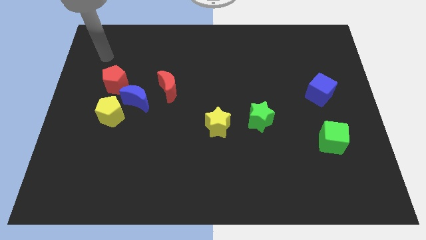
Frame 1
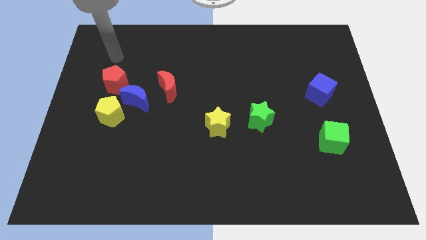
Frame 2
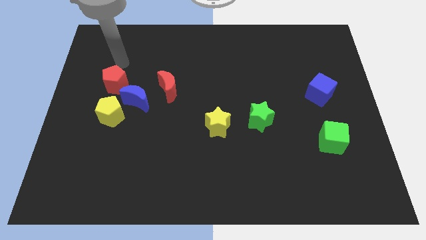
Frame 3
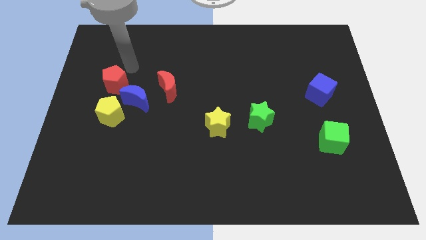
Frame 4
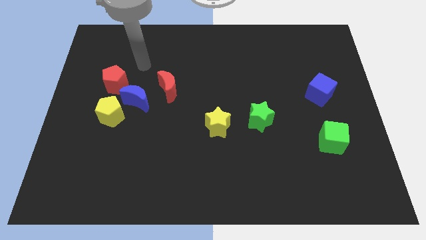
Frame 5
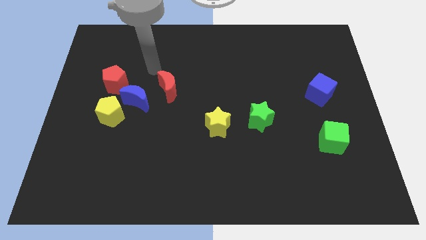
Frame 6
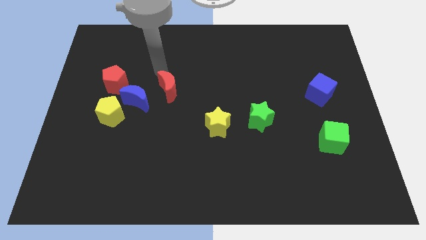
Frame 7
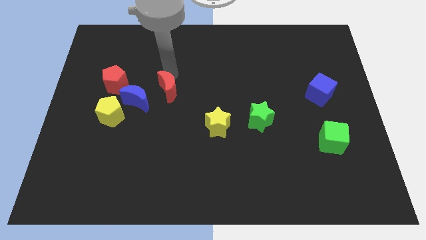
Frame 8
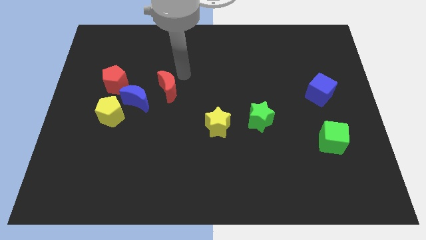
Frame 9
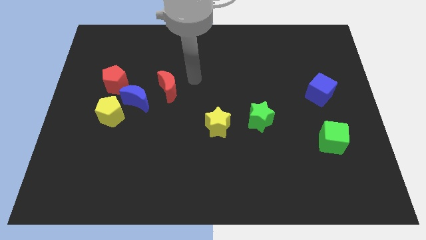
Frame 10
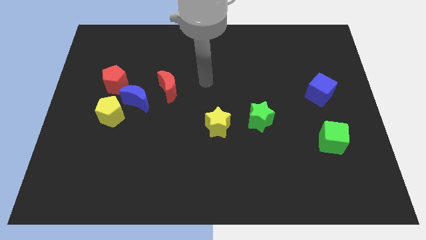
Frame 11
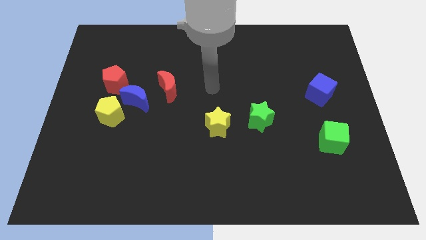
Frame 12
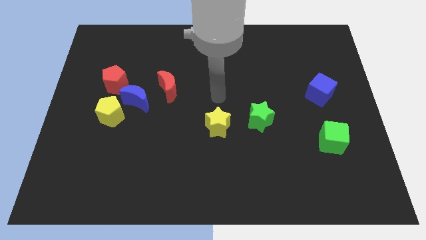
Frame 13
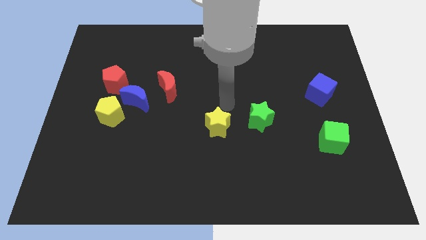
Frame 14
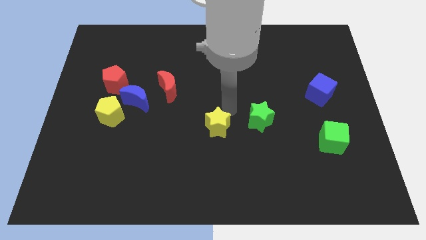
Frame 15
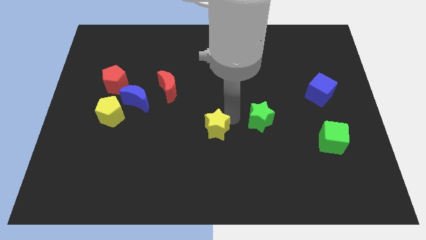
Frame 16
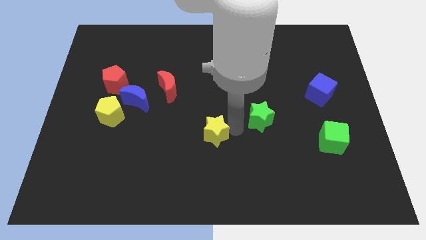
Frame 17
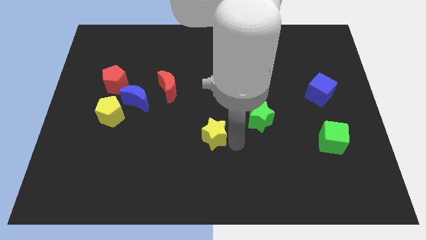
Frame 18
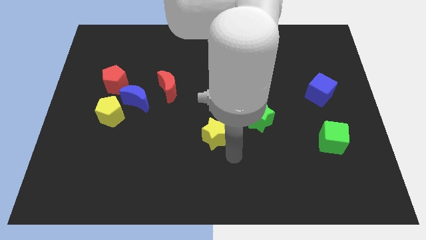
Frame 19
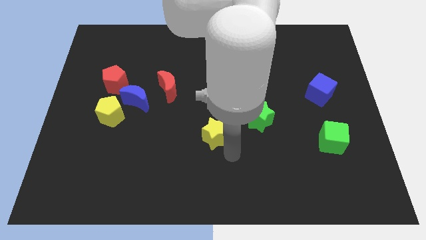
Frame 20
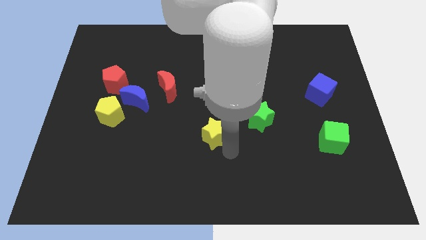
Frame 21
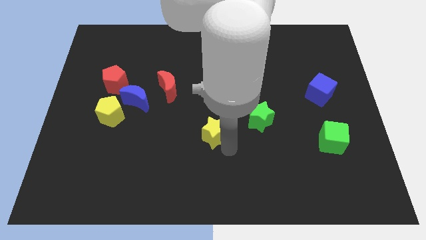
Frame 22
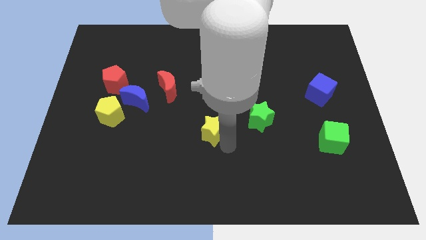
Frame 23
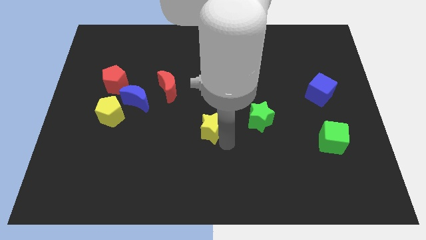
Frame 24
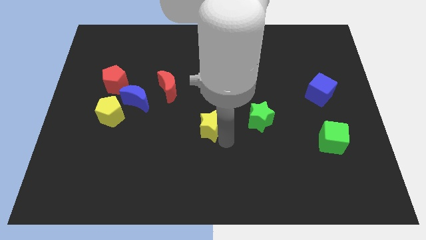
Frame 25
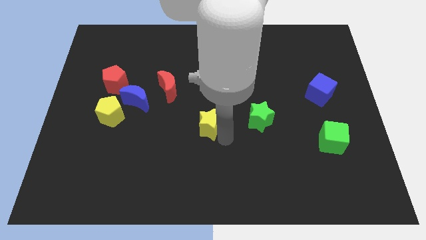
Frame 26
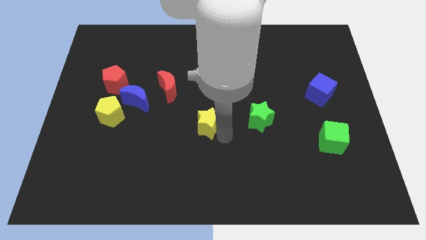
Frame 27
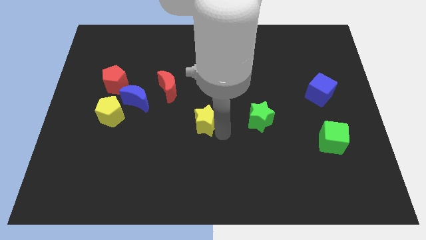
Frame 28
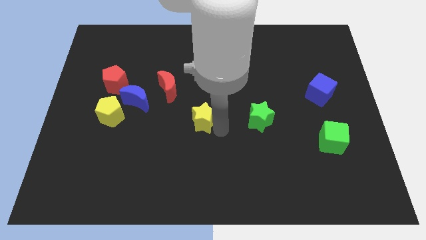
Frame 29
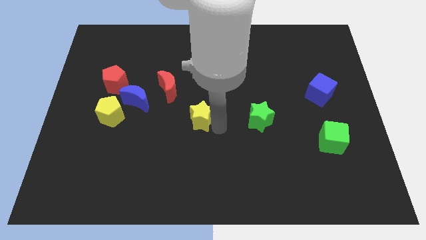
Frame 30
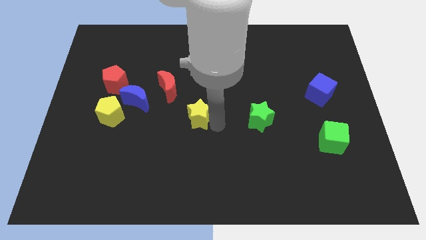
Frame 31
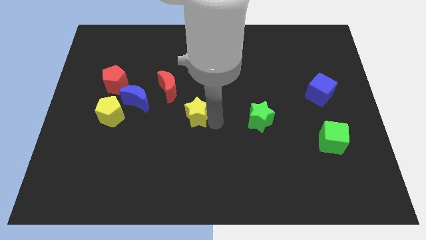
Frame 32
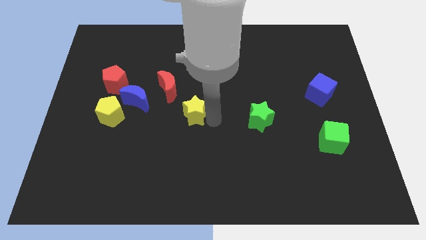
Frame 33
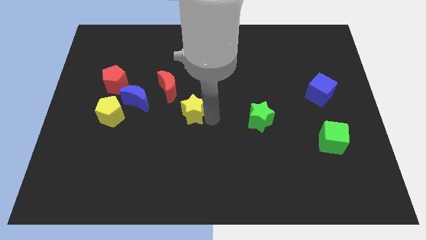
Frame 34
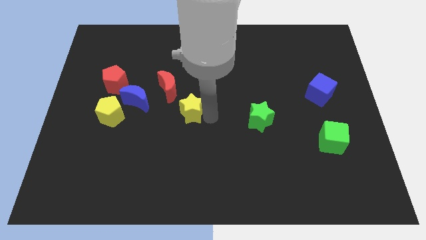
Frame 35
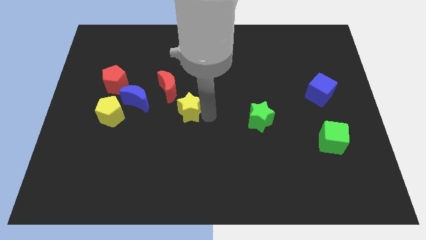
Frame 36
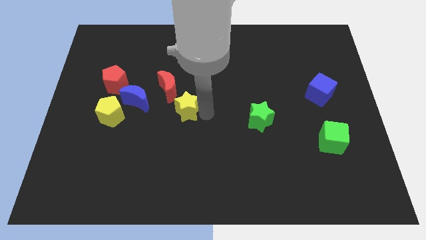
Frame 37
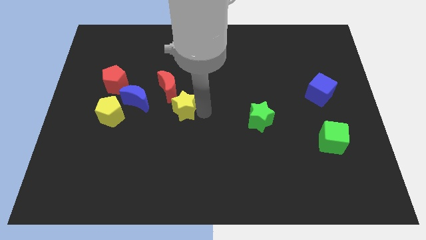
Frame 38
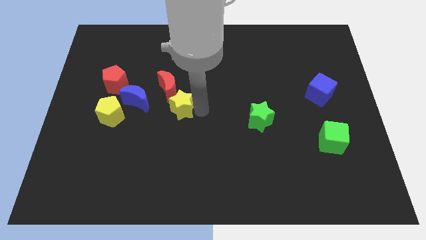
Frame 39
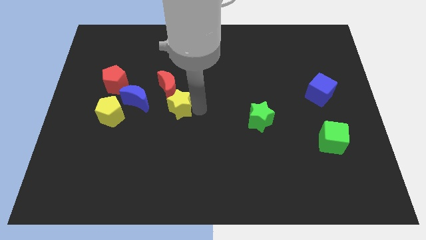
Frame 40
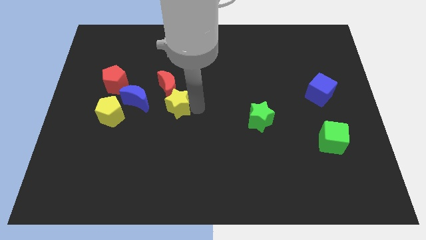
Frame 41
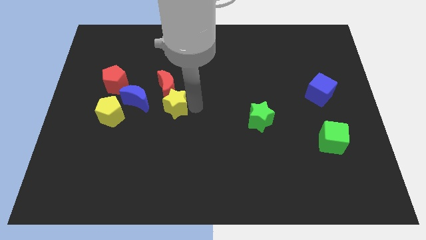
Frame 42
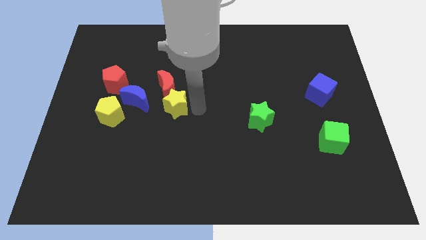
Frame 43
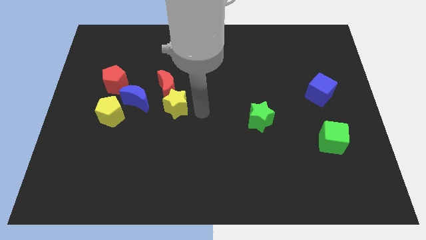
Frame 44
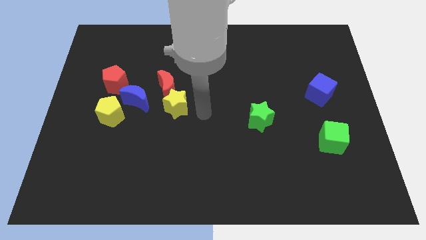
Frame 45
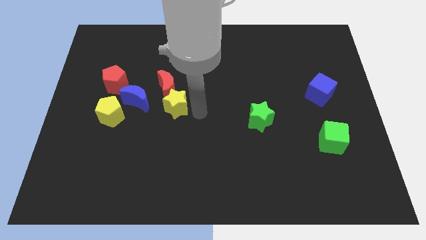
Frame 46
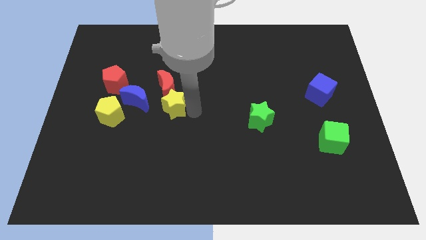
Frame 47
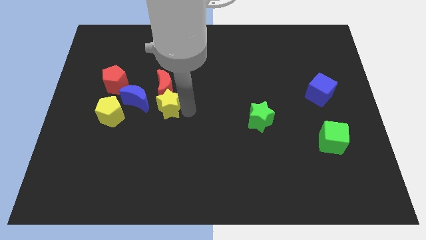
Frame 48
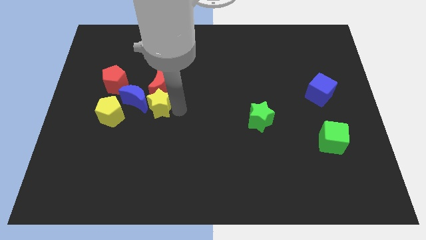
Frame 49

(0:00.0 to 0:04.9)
put the yellow star next to the blue moon

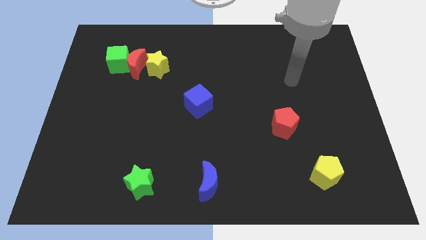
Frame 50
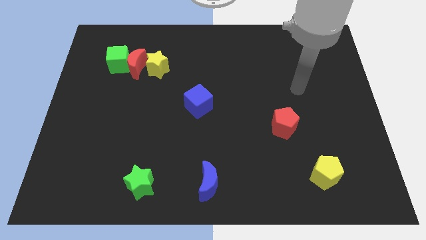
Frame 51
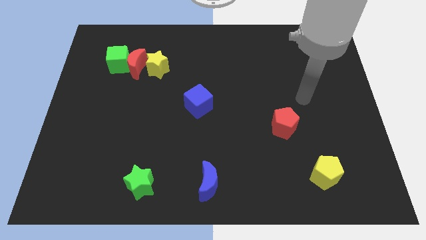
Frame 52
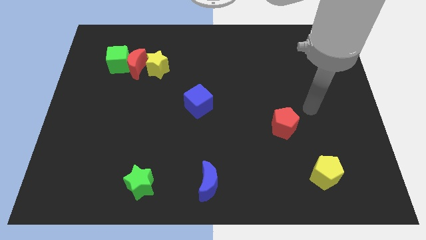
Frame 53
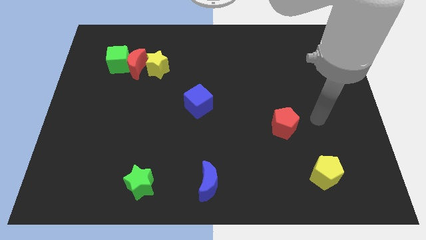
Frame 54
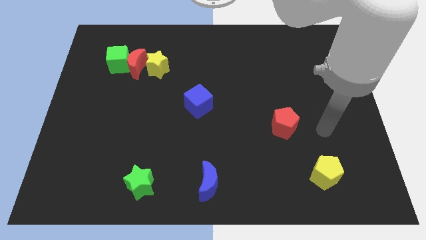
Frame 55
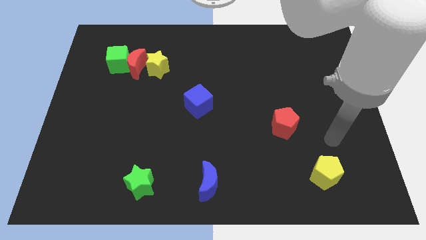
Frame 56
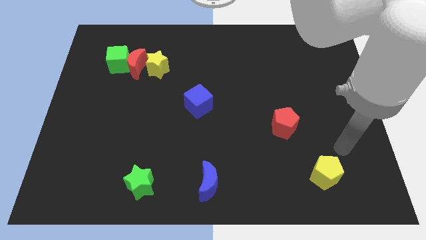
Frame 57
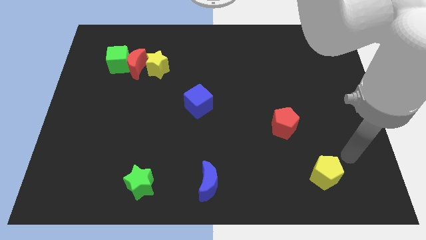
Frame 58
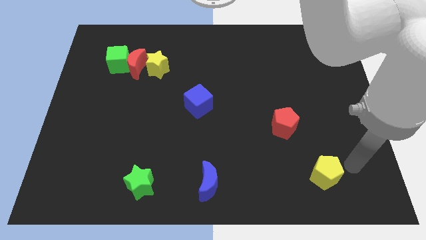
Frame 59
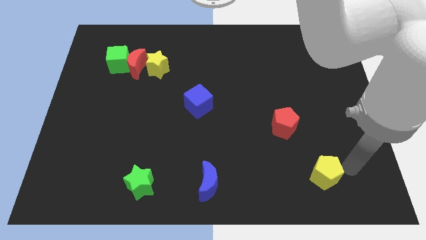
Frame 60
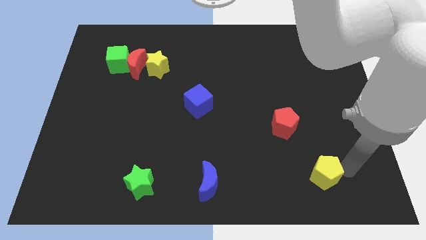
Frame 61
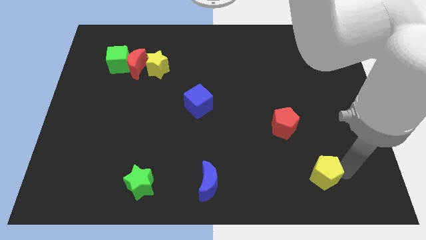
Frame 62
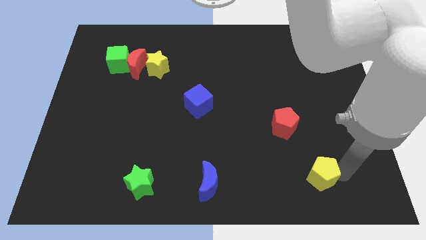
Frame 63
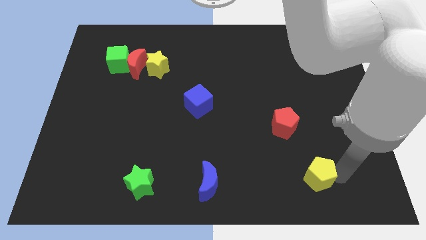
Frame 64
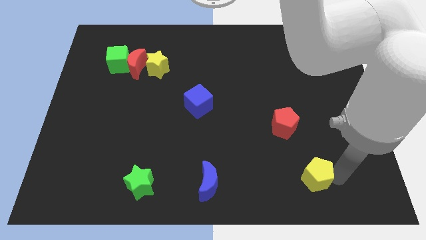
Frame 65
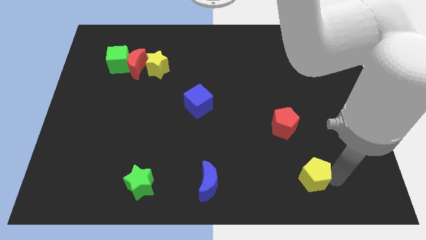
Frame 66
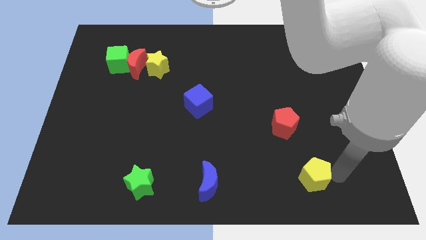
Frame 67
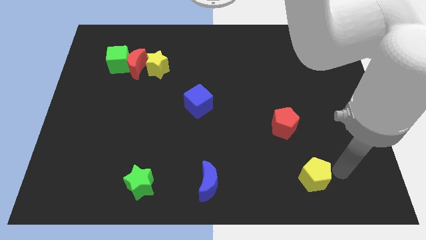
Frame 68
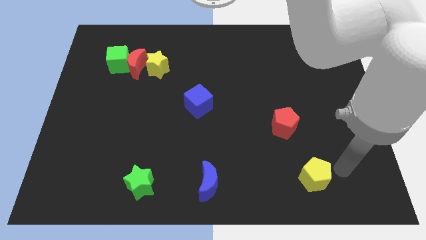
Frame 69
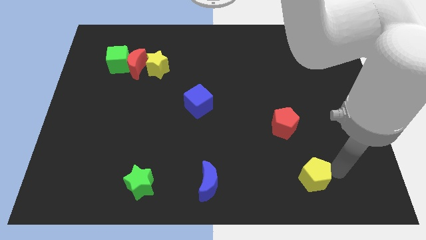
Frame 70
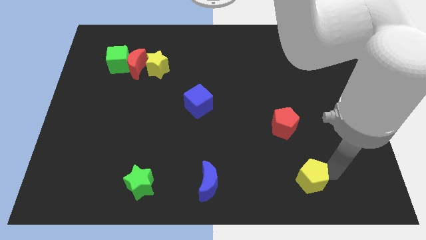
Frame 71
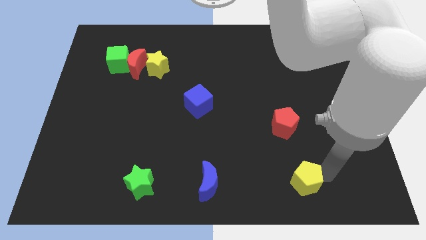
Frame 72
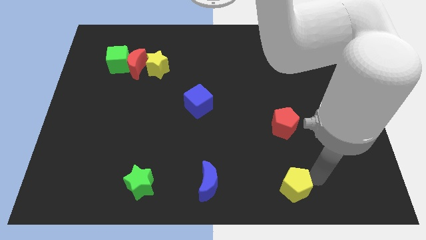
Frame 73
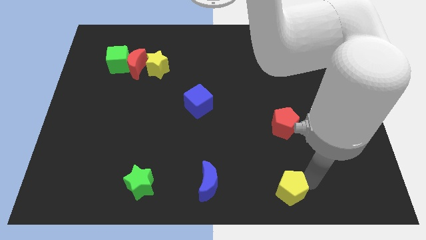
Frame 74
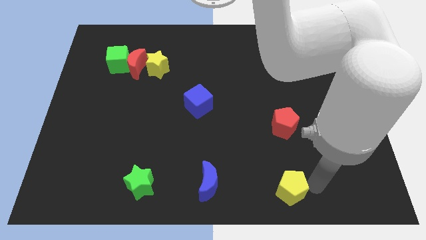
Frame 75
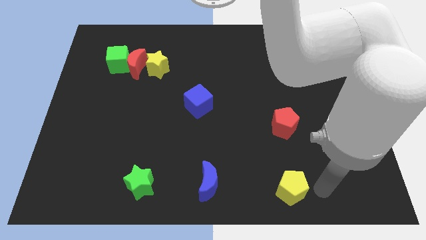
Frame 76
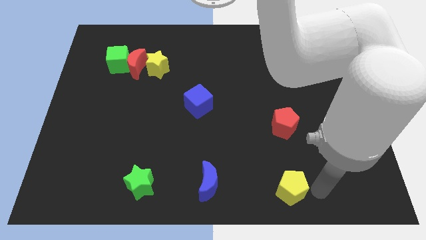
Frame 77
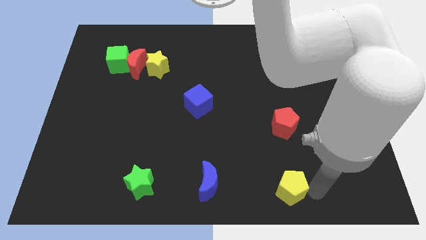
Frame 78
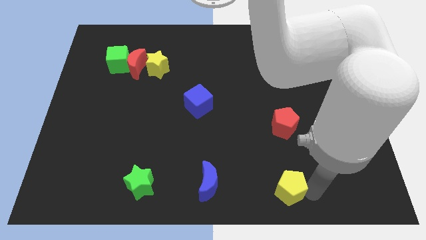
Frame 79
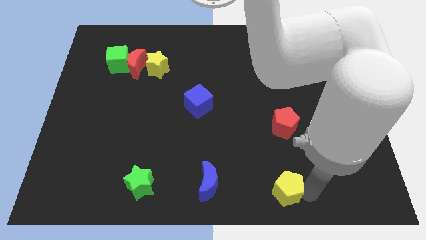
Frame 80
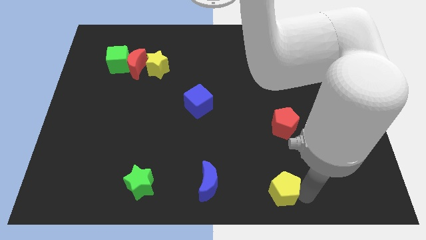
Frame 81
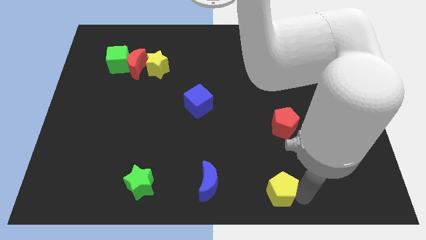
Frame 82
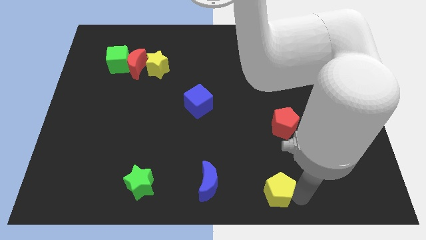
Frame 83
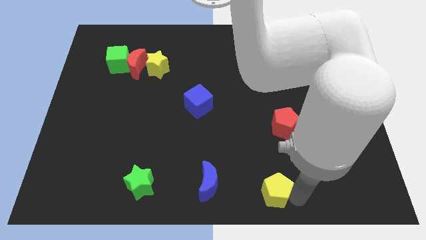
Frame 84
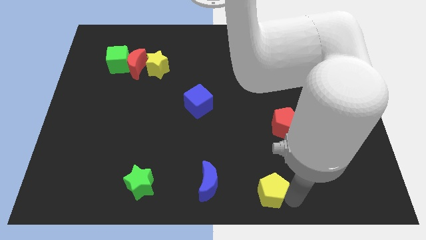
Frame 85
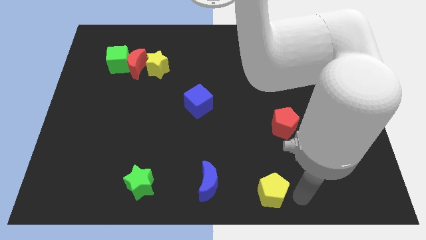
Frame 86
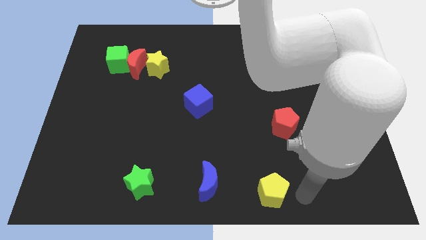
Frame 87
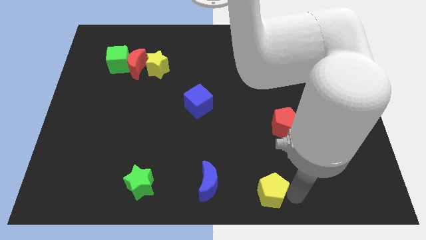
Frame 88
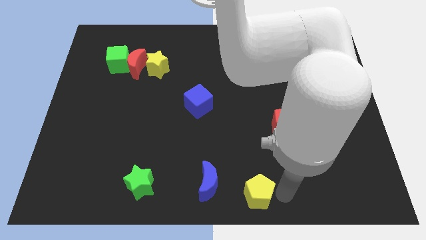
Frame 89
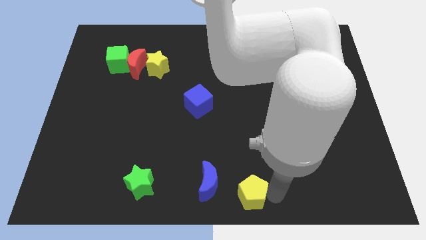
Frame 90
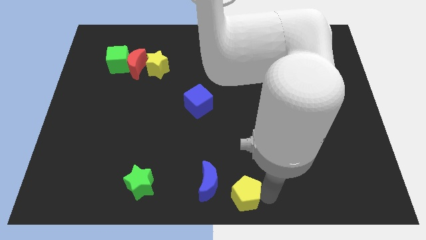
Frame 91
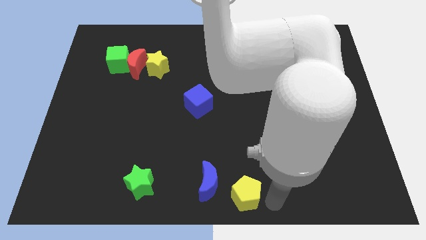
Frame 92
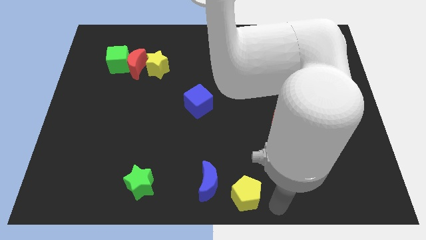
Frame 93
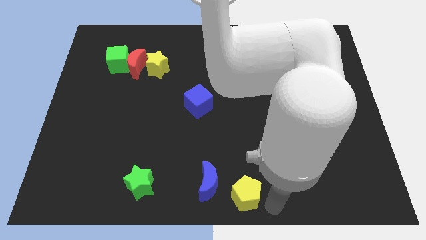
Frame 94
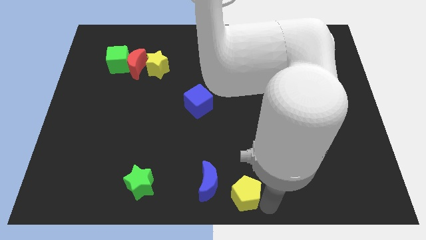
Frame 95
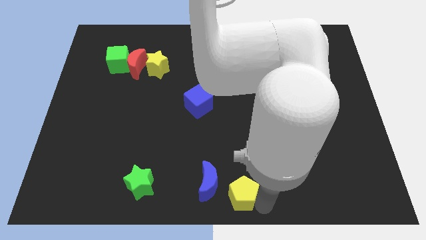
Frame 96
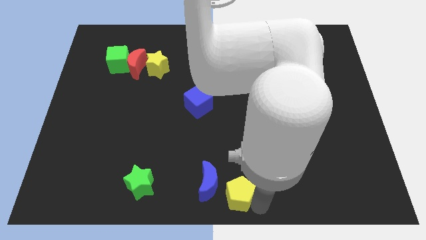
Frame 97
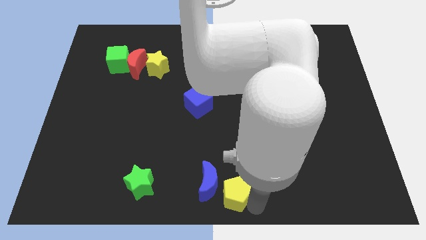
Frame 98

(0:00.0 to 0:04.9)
slide the yellow pentagon close to the blue moon
